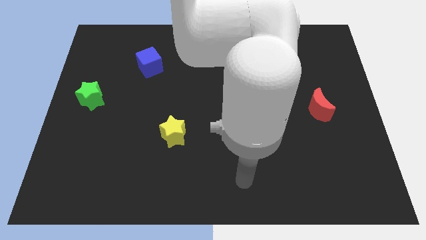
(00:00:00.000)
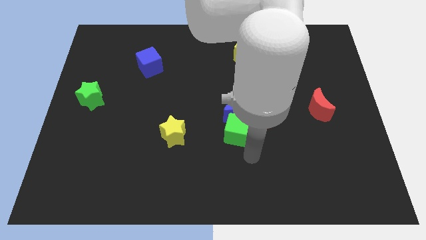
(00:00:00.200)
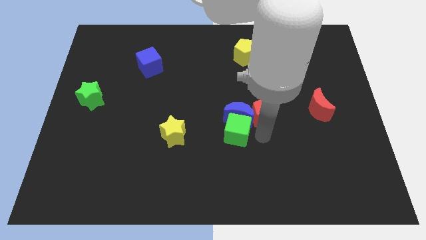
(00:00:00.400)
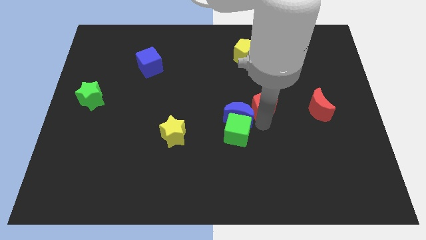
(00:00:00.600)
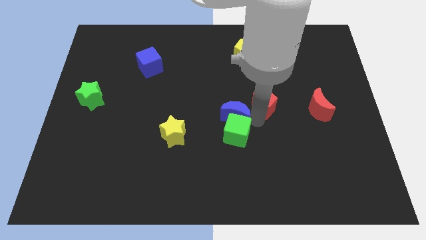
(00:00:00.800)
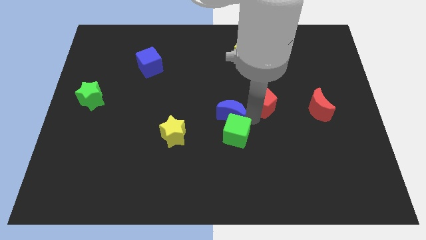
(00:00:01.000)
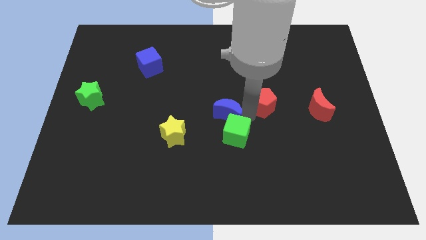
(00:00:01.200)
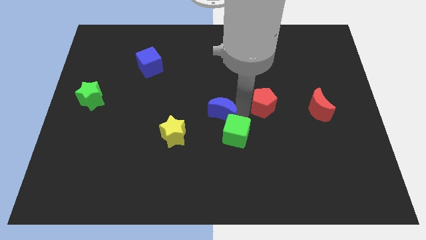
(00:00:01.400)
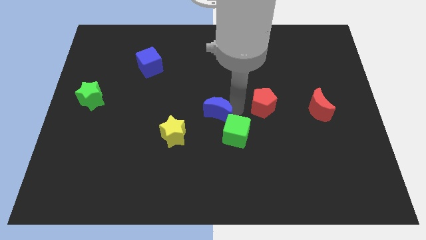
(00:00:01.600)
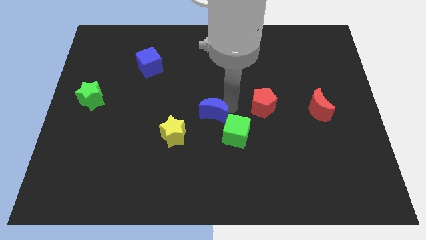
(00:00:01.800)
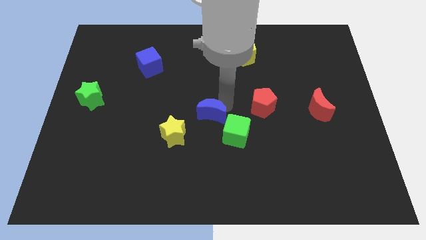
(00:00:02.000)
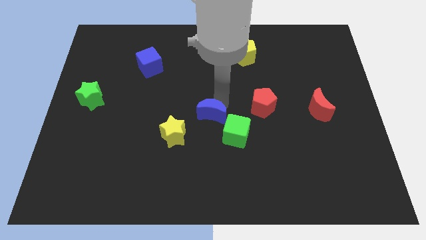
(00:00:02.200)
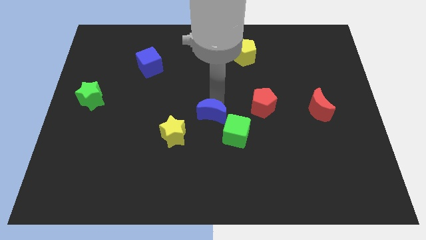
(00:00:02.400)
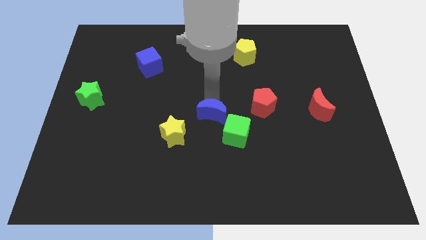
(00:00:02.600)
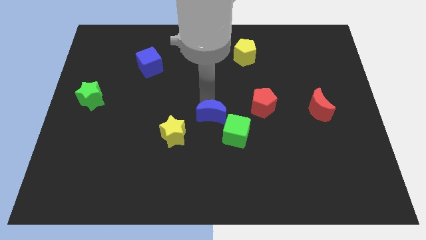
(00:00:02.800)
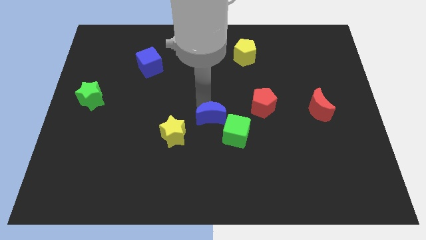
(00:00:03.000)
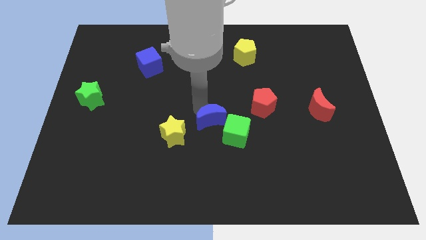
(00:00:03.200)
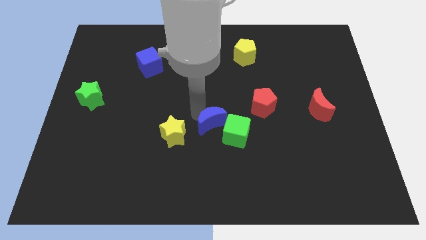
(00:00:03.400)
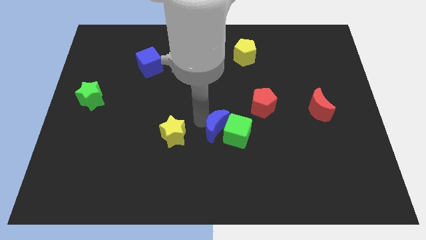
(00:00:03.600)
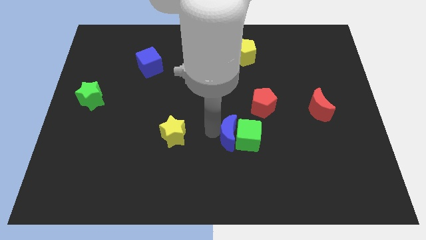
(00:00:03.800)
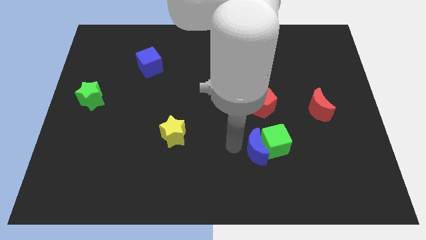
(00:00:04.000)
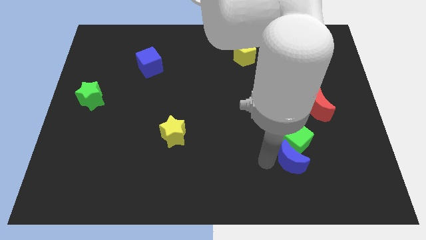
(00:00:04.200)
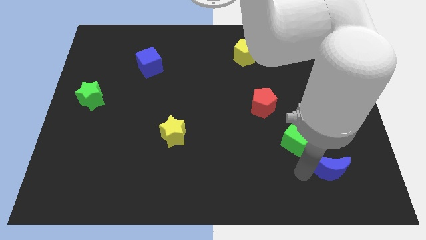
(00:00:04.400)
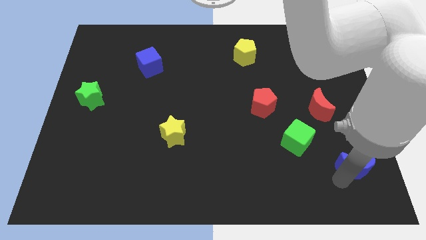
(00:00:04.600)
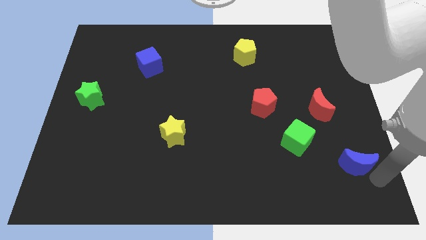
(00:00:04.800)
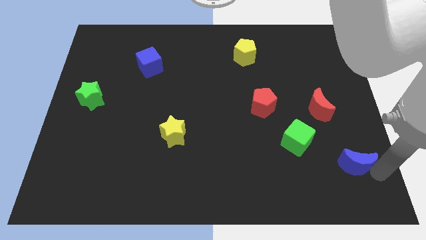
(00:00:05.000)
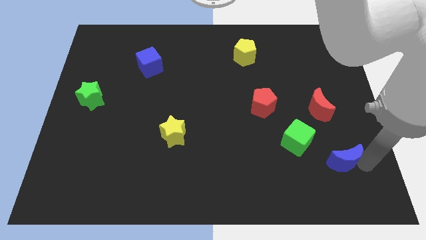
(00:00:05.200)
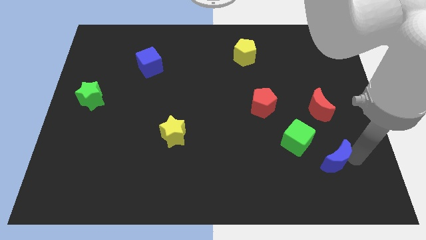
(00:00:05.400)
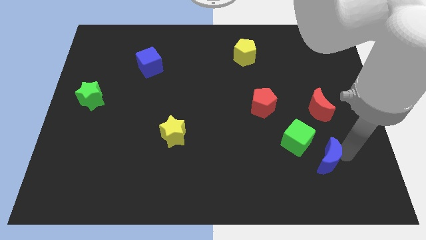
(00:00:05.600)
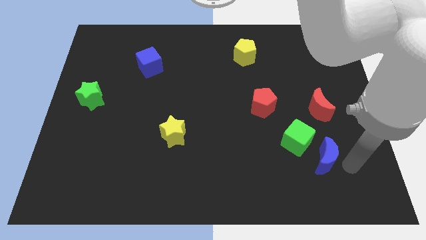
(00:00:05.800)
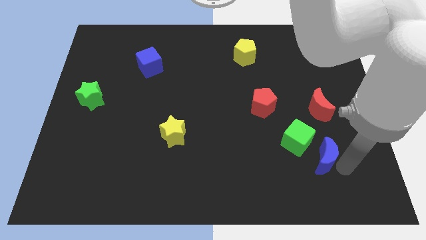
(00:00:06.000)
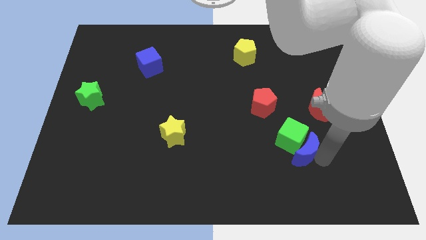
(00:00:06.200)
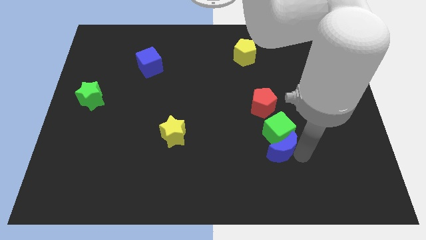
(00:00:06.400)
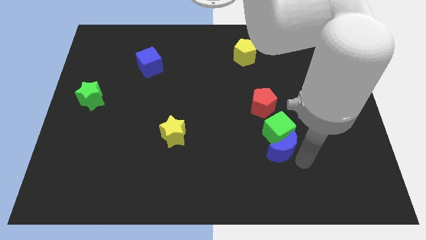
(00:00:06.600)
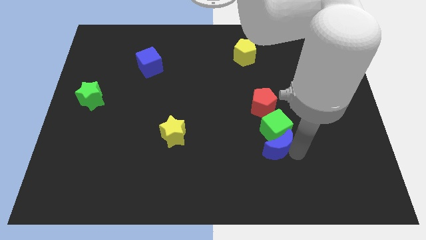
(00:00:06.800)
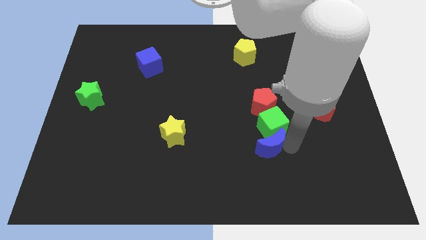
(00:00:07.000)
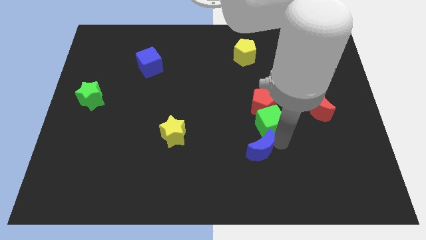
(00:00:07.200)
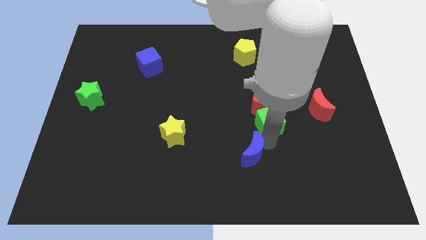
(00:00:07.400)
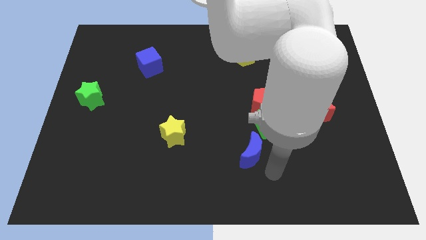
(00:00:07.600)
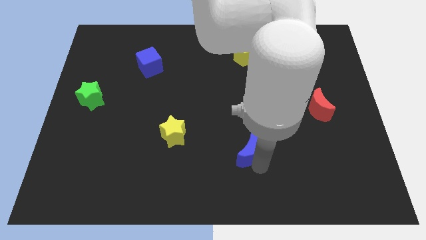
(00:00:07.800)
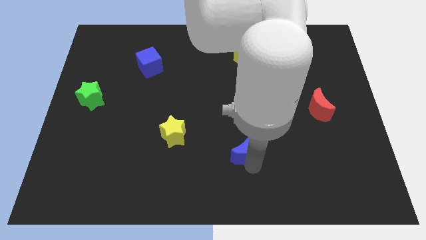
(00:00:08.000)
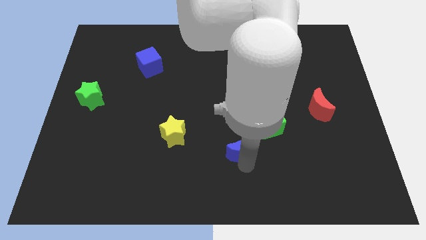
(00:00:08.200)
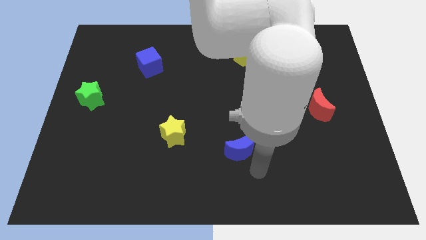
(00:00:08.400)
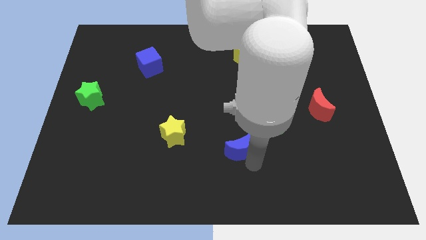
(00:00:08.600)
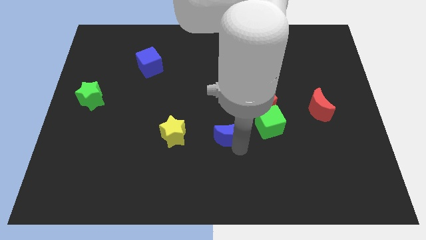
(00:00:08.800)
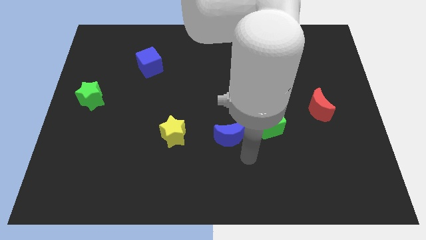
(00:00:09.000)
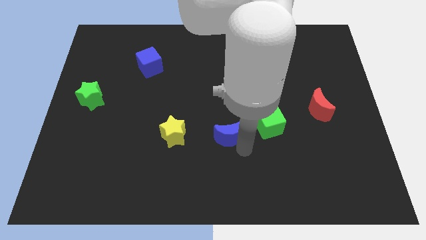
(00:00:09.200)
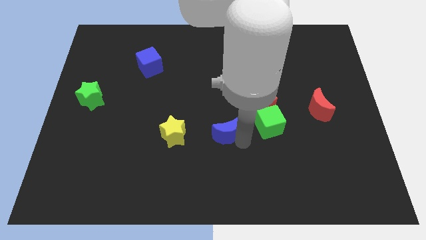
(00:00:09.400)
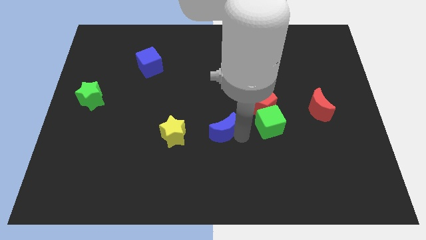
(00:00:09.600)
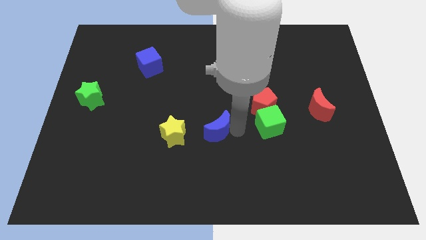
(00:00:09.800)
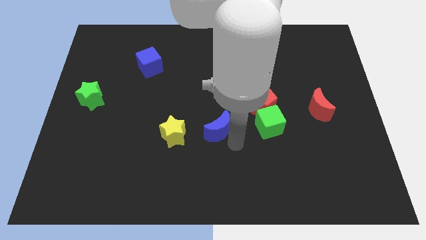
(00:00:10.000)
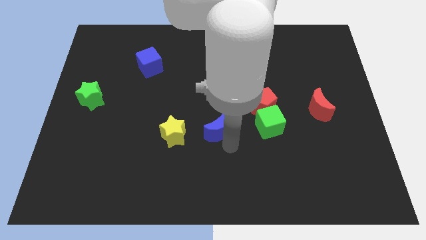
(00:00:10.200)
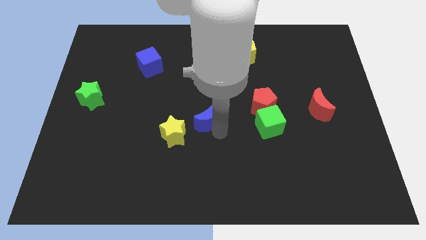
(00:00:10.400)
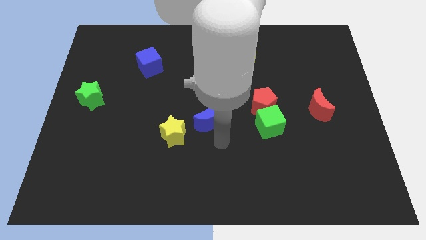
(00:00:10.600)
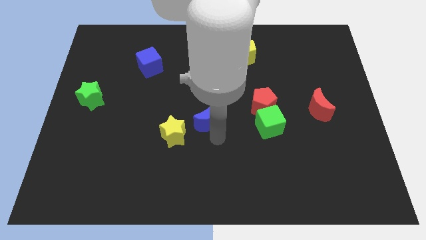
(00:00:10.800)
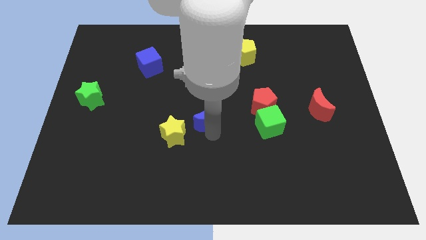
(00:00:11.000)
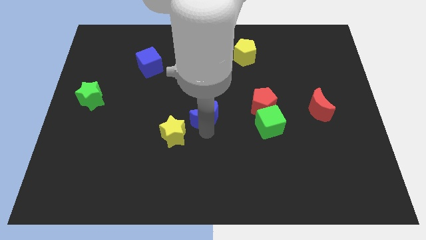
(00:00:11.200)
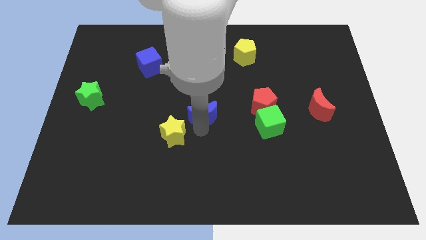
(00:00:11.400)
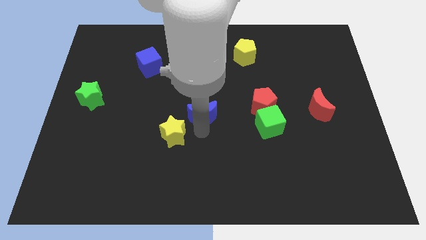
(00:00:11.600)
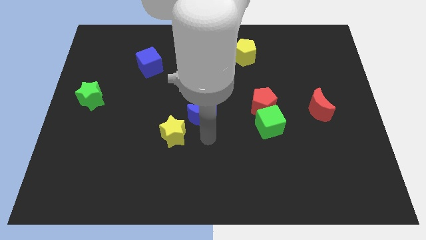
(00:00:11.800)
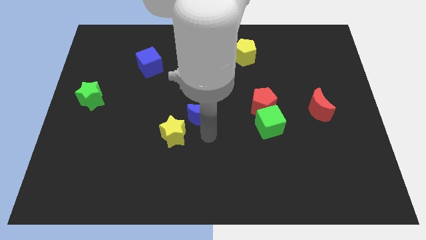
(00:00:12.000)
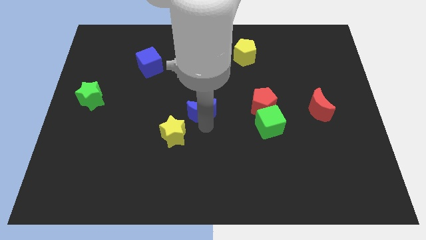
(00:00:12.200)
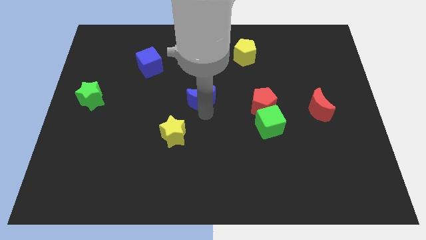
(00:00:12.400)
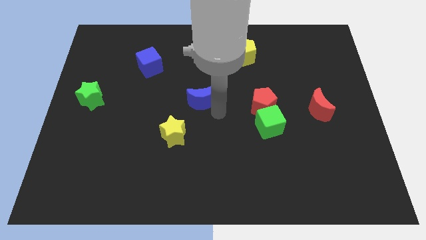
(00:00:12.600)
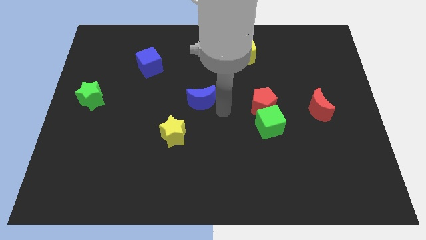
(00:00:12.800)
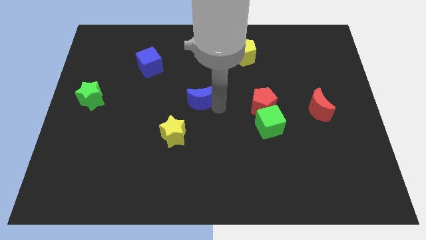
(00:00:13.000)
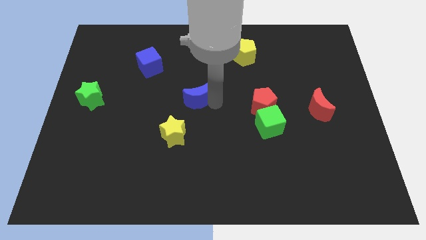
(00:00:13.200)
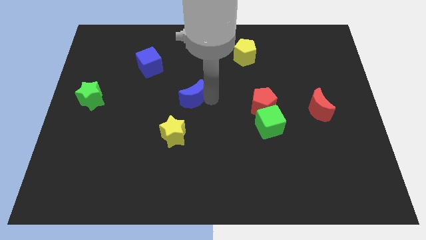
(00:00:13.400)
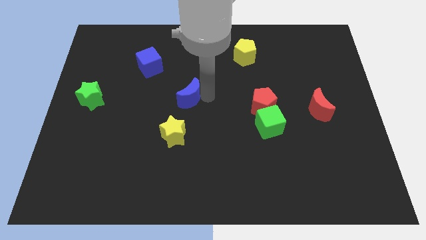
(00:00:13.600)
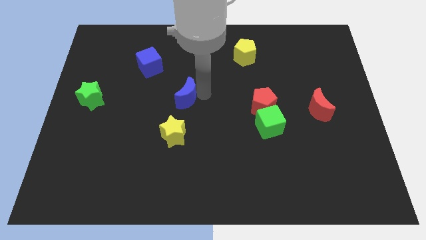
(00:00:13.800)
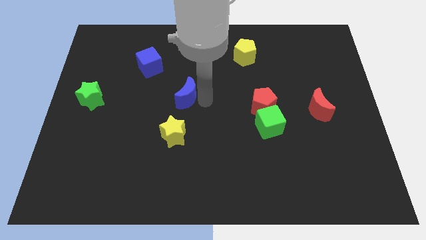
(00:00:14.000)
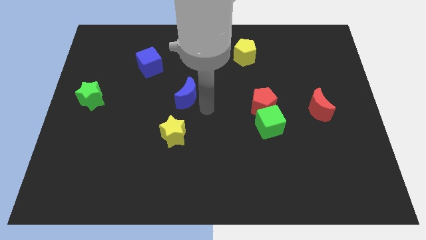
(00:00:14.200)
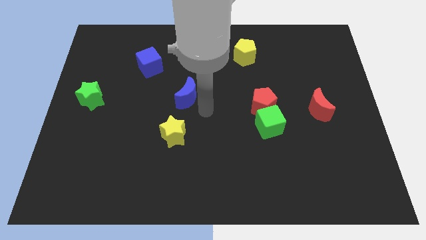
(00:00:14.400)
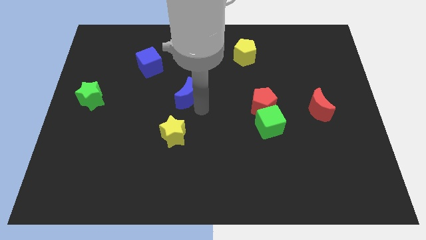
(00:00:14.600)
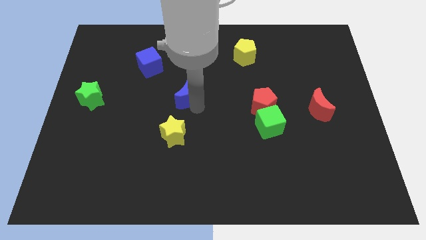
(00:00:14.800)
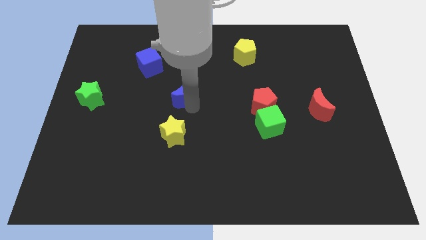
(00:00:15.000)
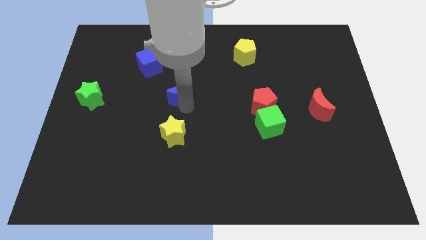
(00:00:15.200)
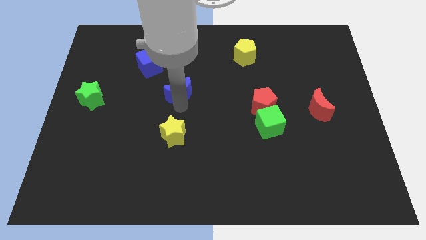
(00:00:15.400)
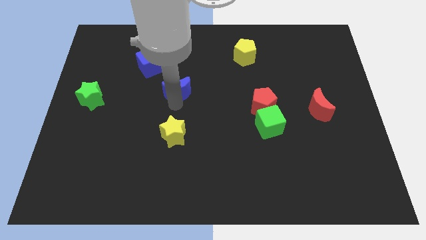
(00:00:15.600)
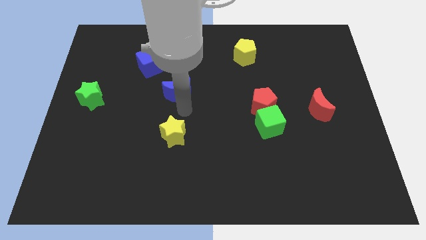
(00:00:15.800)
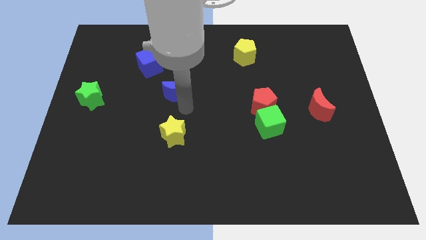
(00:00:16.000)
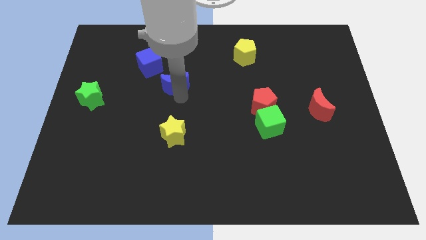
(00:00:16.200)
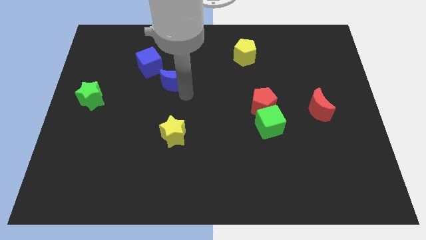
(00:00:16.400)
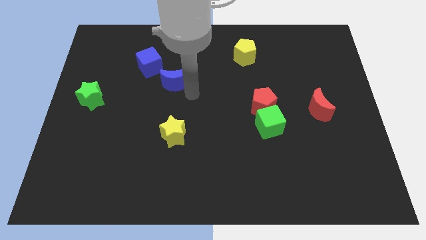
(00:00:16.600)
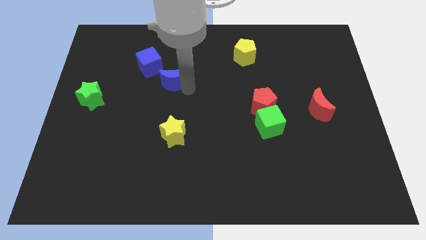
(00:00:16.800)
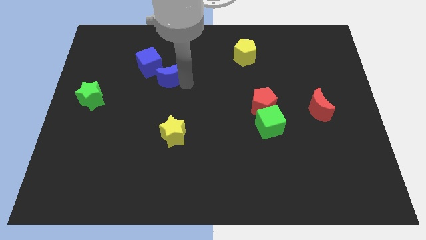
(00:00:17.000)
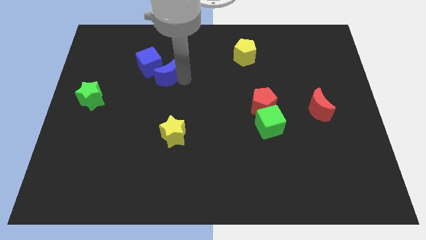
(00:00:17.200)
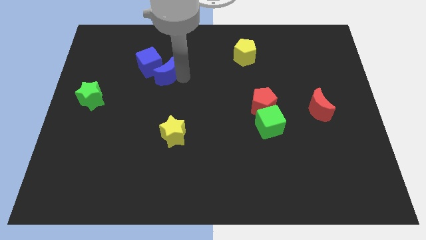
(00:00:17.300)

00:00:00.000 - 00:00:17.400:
push the blue moon close to the blue cube
